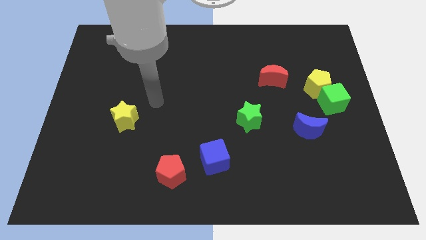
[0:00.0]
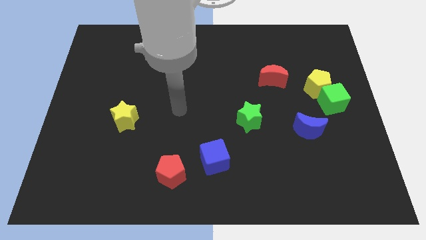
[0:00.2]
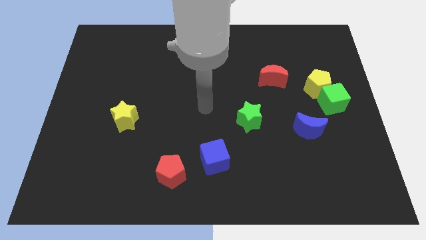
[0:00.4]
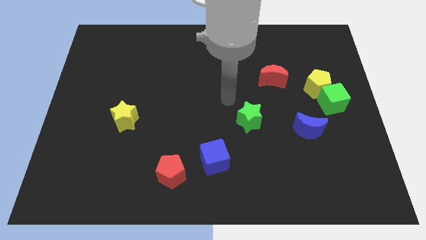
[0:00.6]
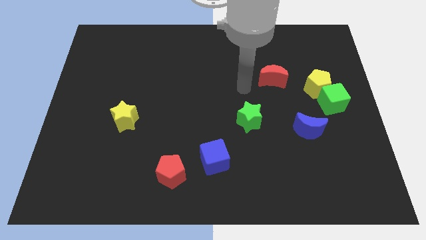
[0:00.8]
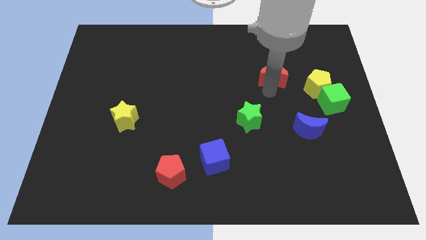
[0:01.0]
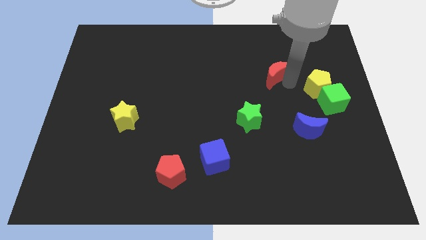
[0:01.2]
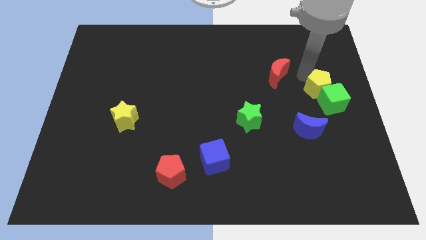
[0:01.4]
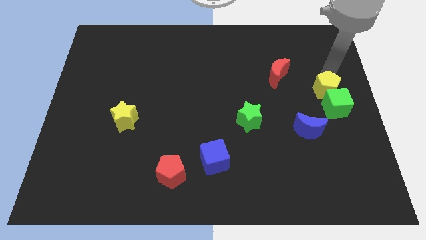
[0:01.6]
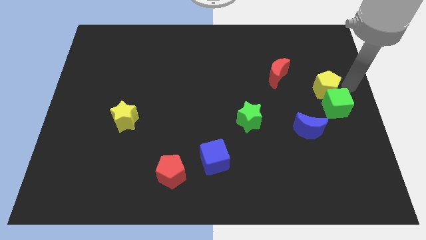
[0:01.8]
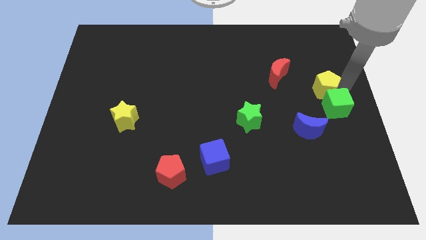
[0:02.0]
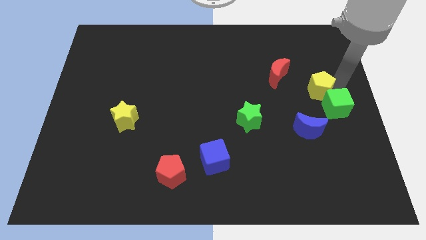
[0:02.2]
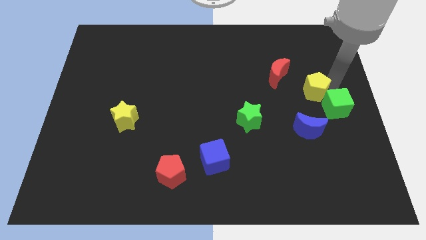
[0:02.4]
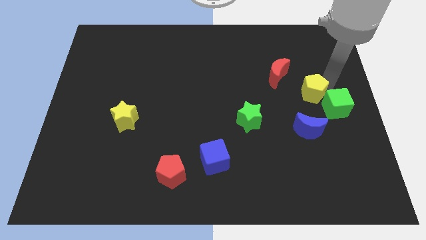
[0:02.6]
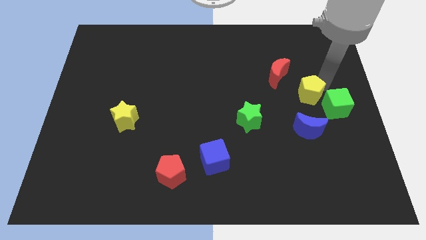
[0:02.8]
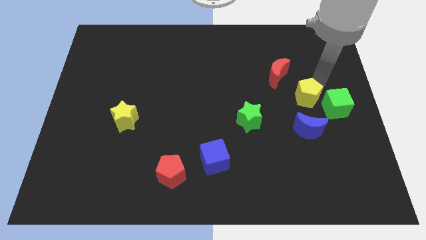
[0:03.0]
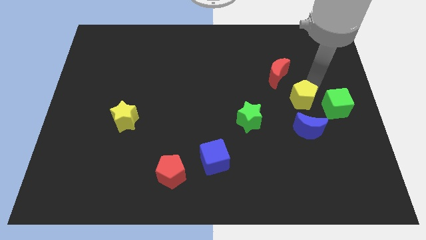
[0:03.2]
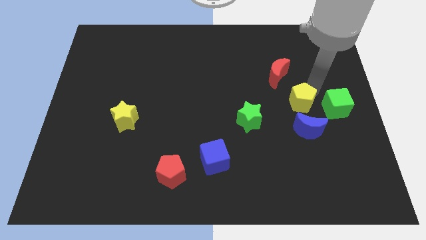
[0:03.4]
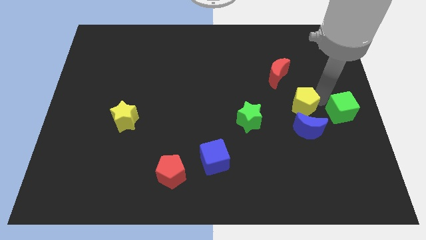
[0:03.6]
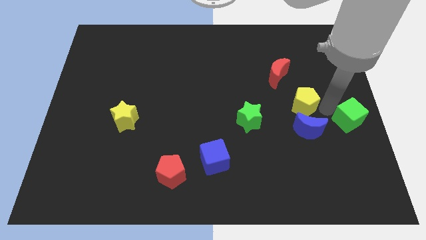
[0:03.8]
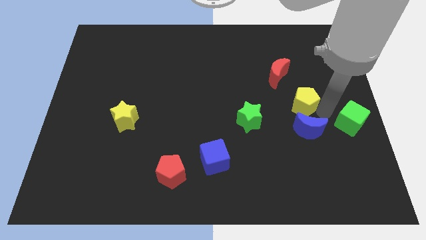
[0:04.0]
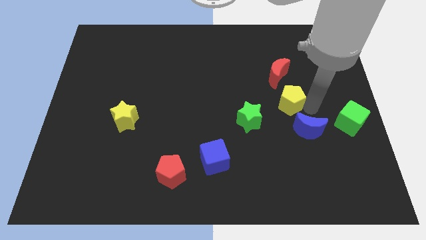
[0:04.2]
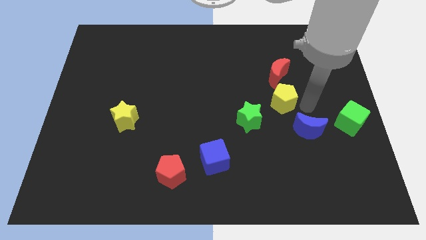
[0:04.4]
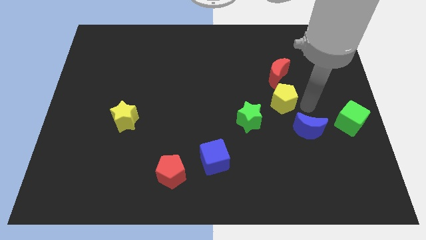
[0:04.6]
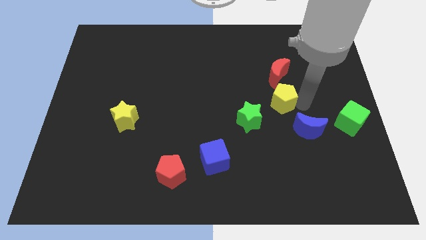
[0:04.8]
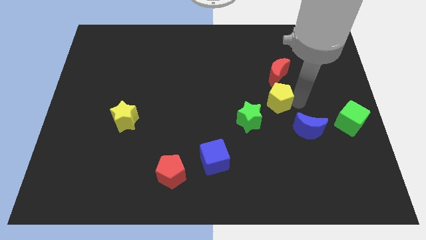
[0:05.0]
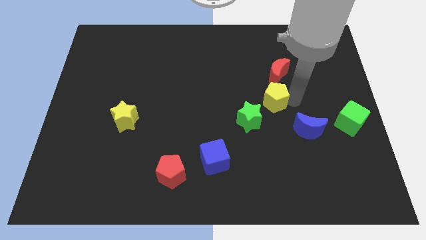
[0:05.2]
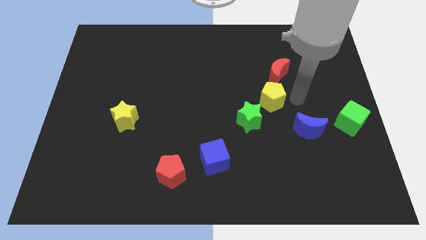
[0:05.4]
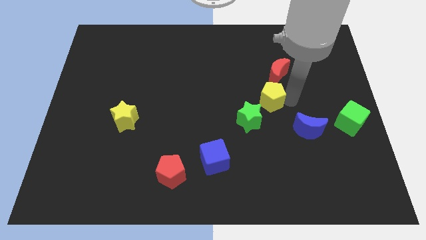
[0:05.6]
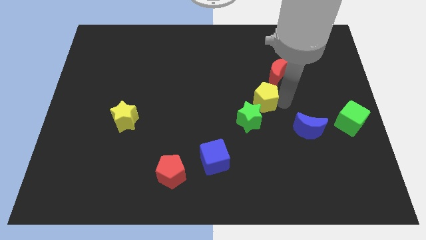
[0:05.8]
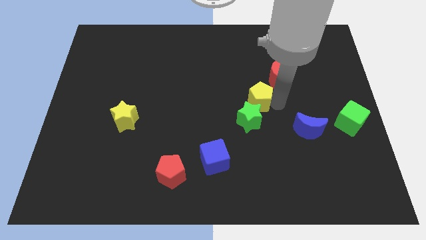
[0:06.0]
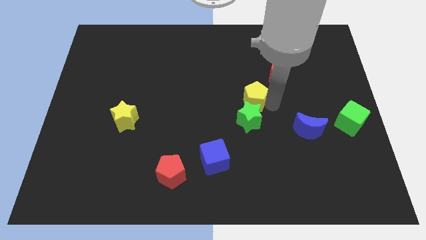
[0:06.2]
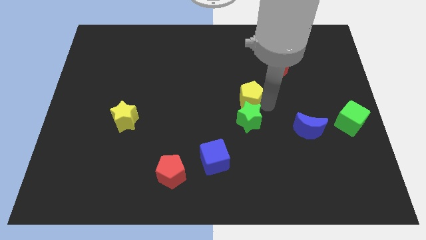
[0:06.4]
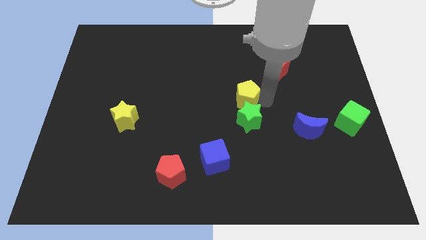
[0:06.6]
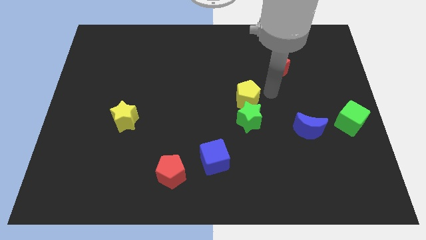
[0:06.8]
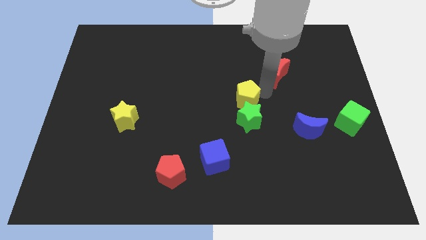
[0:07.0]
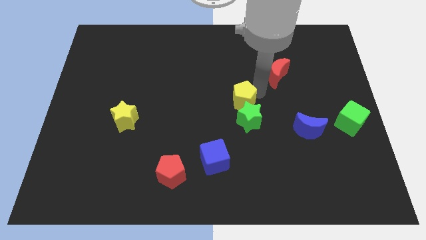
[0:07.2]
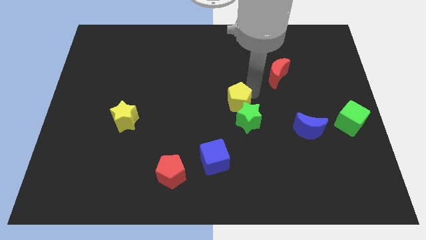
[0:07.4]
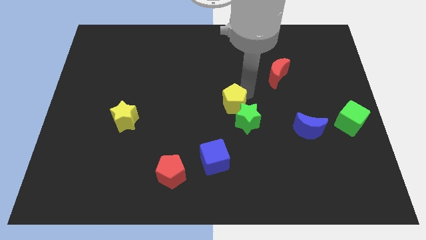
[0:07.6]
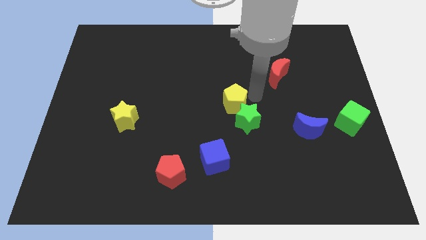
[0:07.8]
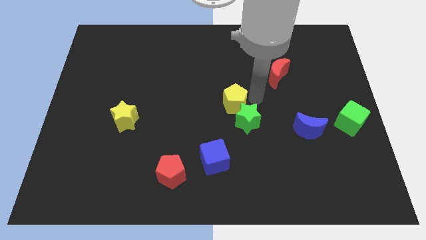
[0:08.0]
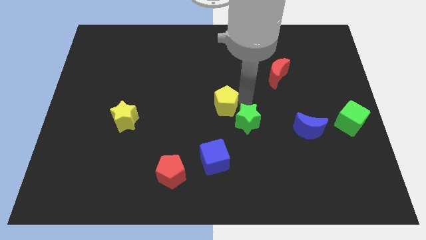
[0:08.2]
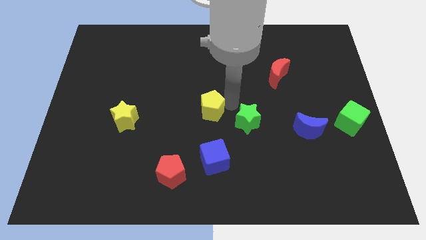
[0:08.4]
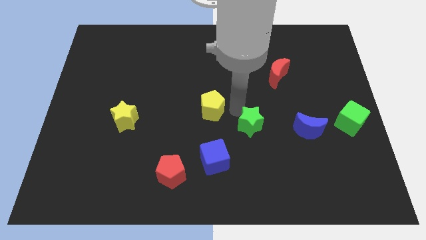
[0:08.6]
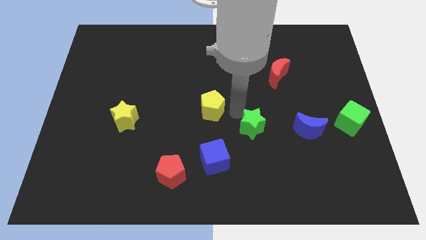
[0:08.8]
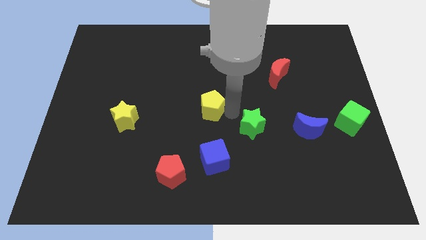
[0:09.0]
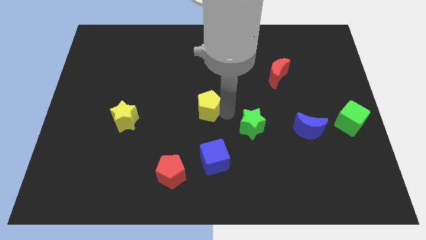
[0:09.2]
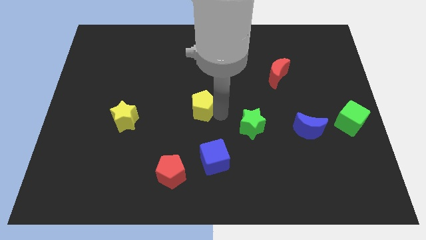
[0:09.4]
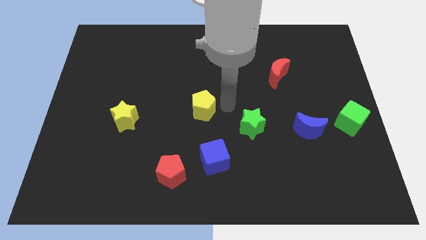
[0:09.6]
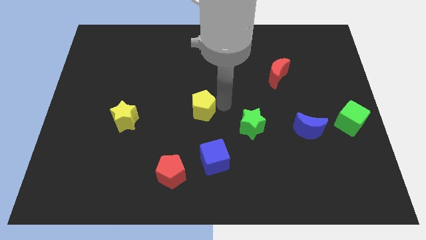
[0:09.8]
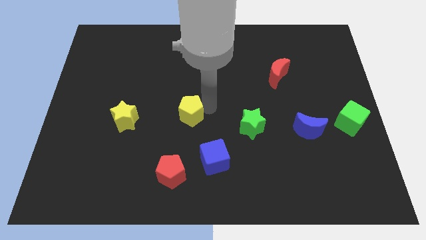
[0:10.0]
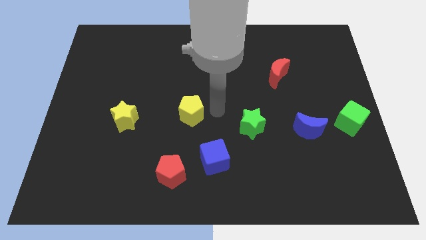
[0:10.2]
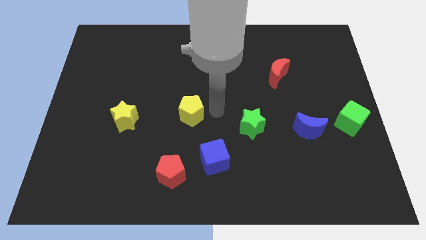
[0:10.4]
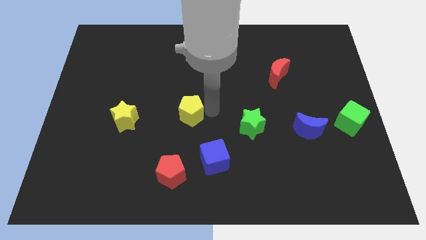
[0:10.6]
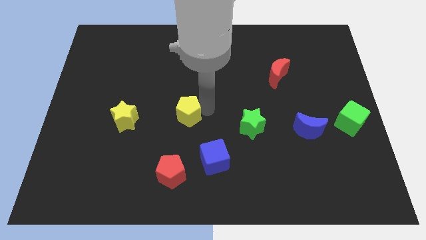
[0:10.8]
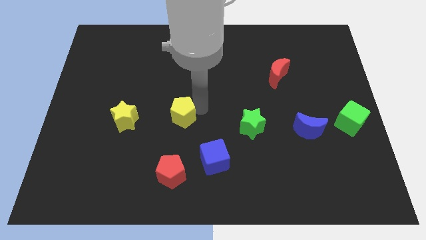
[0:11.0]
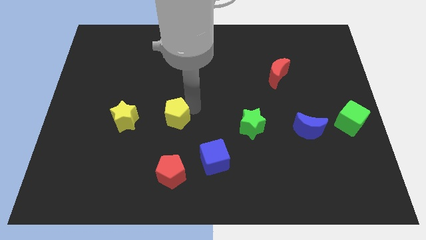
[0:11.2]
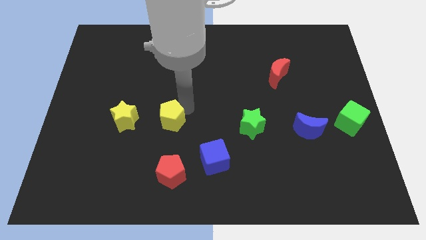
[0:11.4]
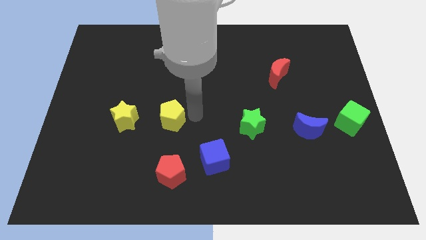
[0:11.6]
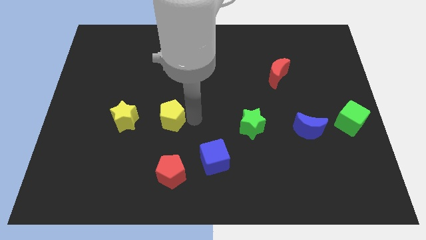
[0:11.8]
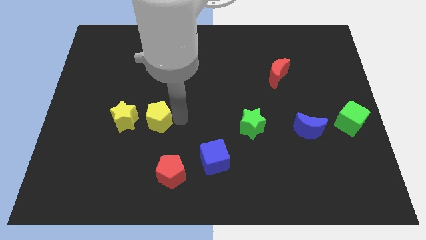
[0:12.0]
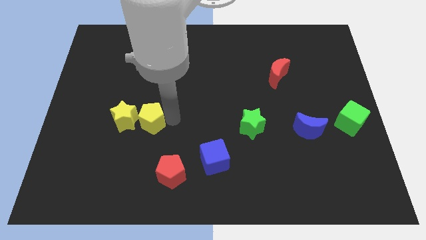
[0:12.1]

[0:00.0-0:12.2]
push the yellow pentagon towards the yellow star

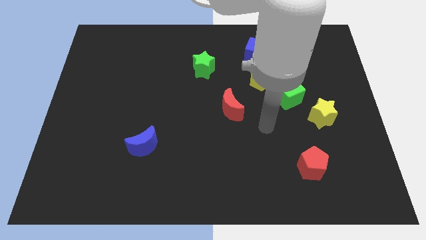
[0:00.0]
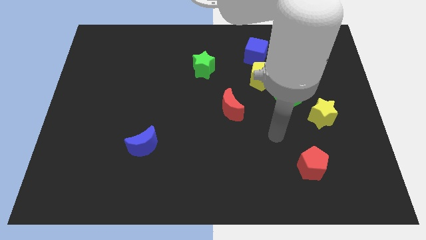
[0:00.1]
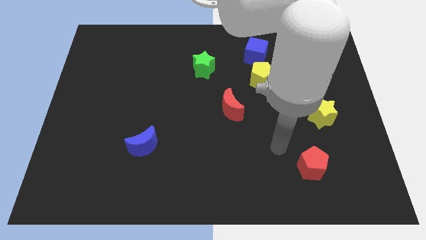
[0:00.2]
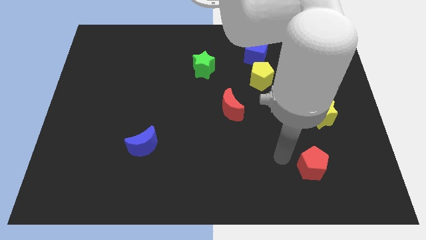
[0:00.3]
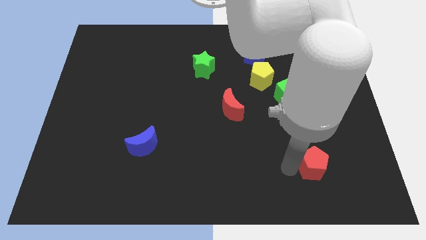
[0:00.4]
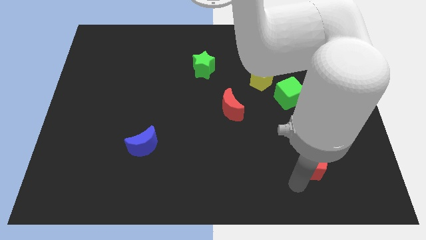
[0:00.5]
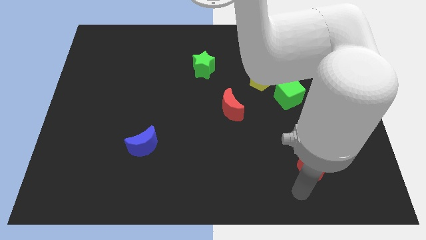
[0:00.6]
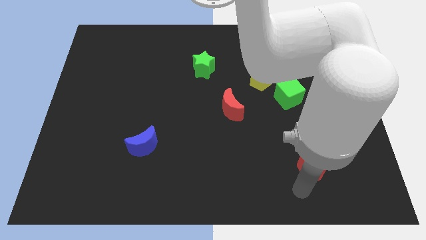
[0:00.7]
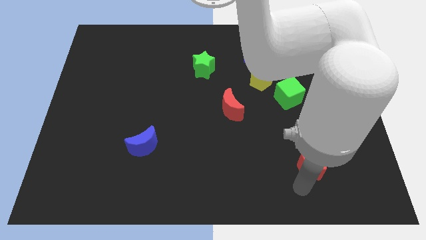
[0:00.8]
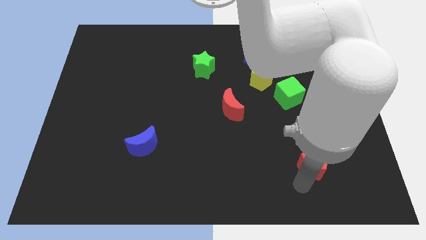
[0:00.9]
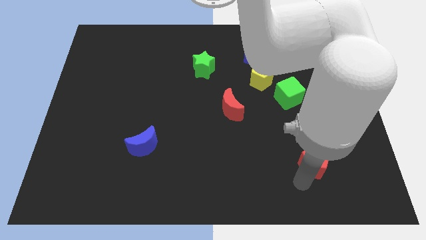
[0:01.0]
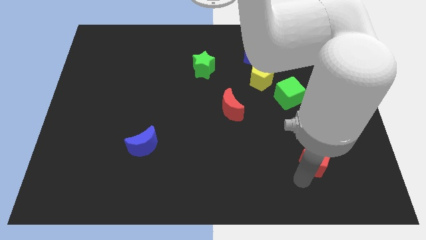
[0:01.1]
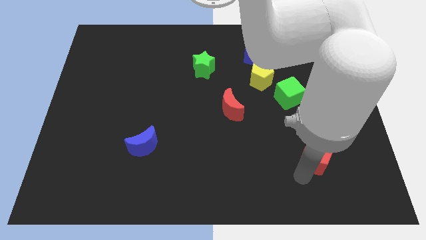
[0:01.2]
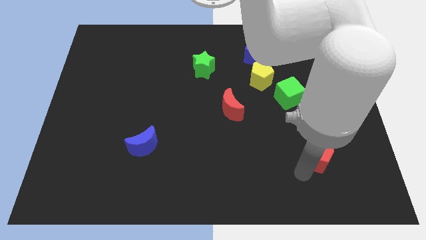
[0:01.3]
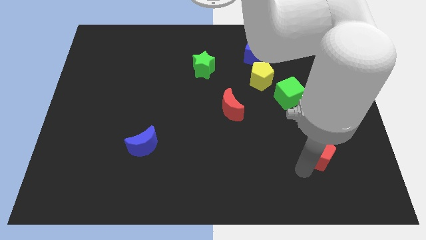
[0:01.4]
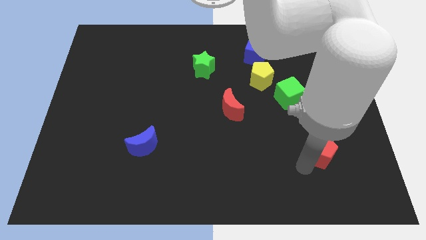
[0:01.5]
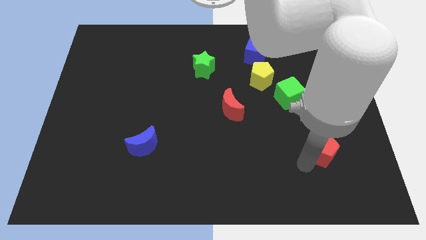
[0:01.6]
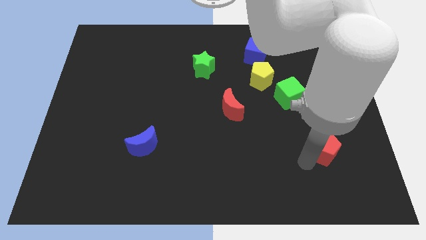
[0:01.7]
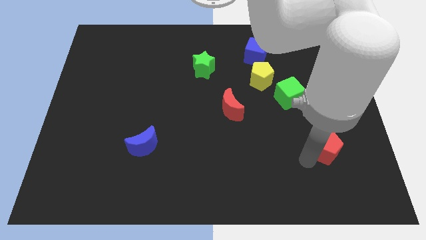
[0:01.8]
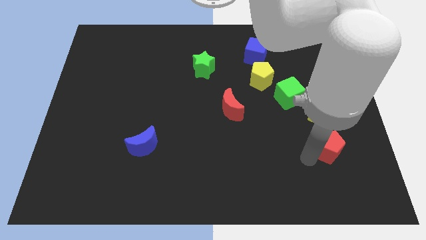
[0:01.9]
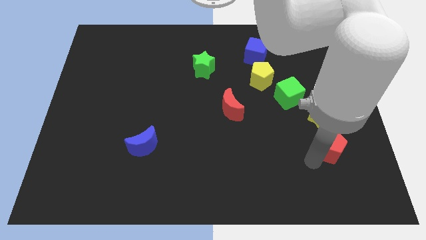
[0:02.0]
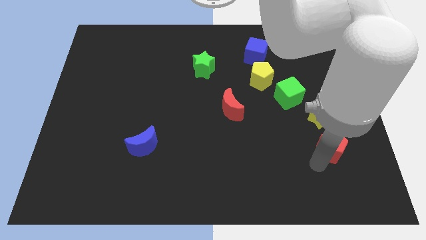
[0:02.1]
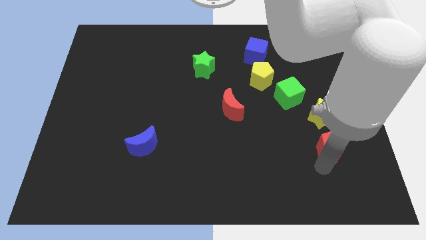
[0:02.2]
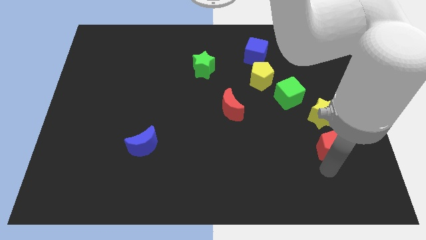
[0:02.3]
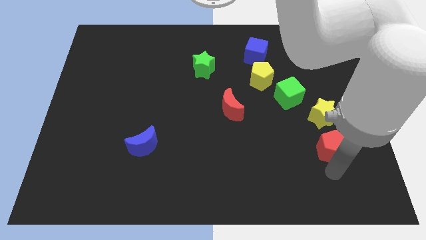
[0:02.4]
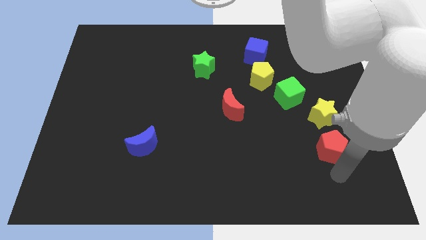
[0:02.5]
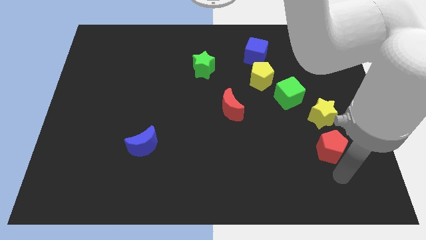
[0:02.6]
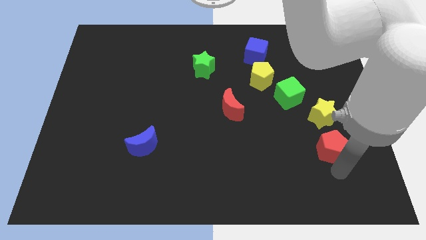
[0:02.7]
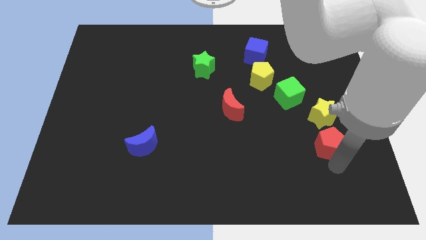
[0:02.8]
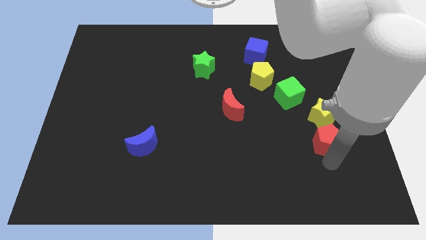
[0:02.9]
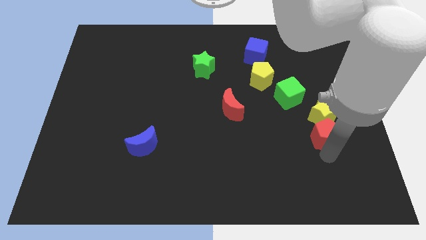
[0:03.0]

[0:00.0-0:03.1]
put the red pentagon towards the yellow star
